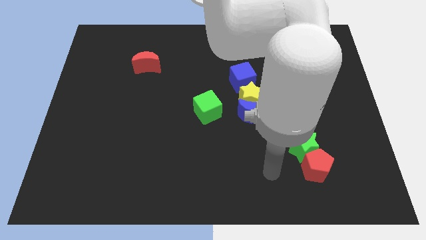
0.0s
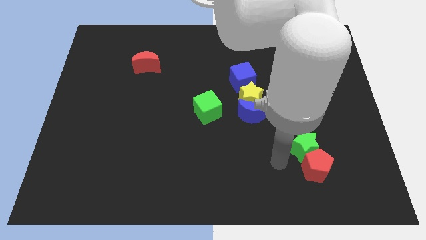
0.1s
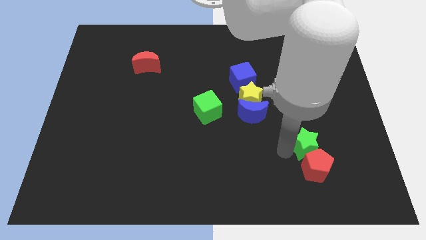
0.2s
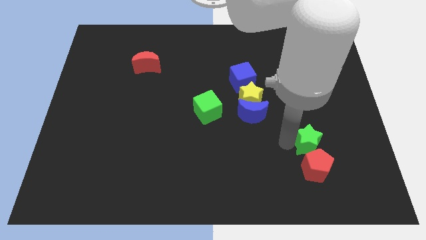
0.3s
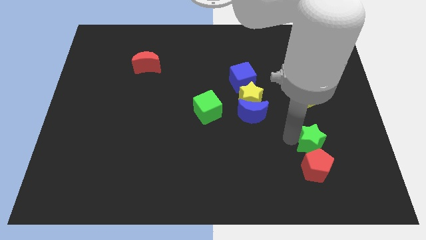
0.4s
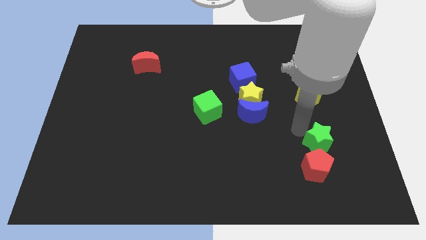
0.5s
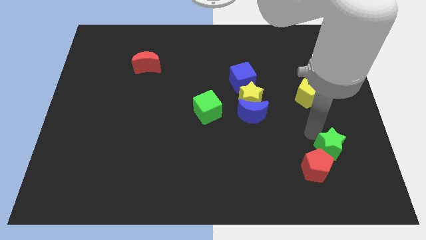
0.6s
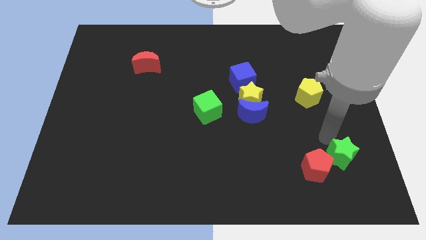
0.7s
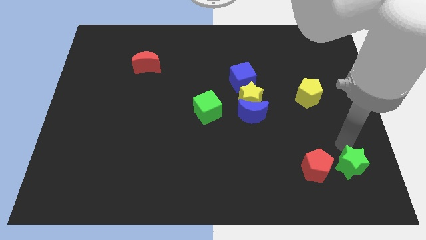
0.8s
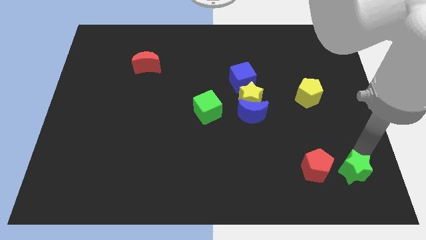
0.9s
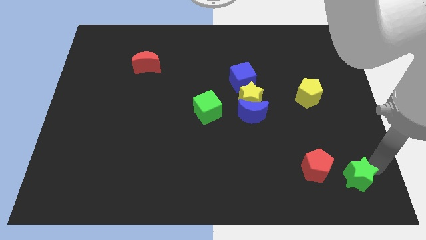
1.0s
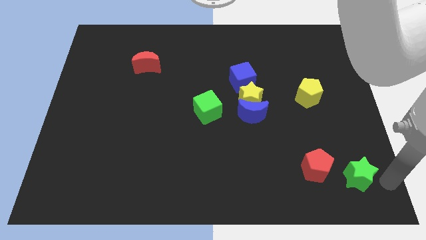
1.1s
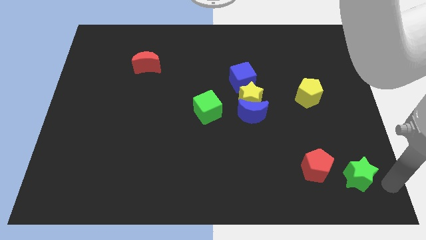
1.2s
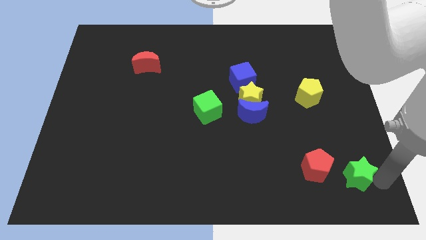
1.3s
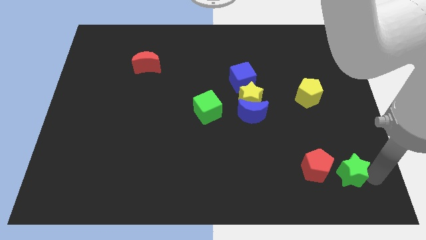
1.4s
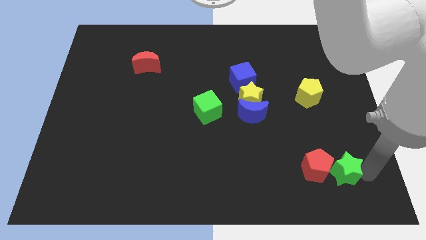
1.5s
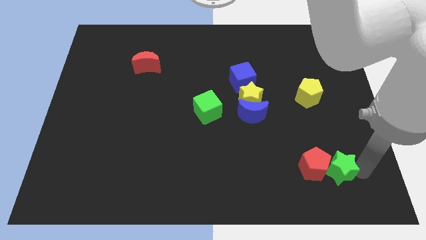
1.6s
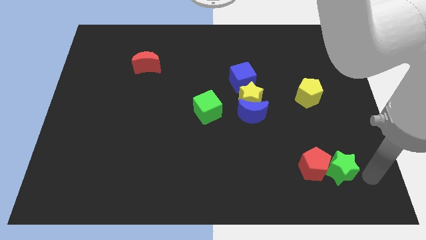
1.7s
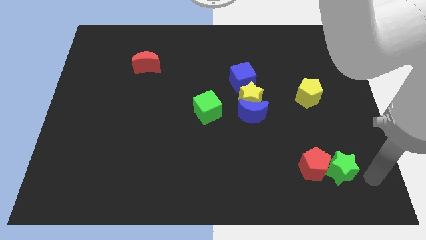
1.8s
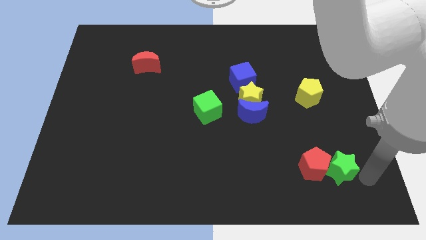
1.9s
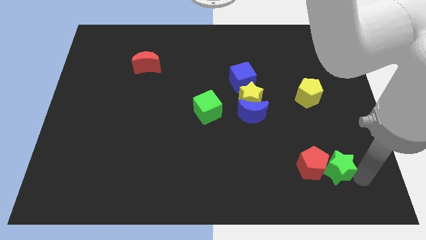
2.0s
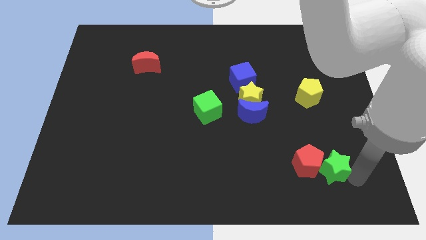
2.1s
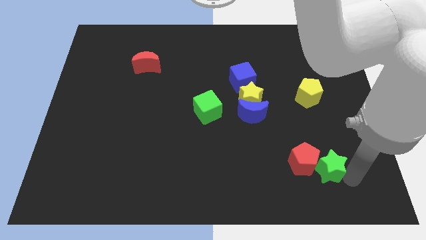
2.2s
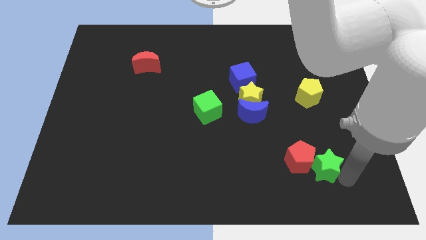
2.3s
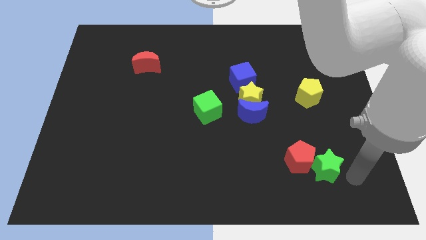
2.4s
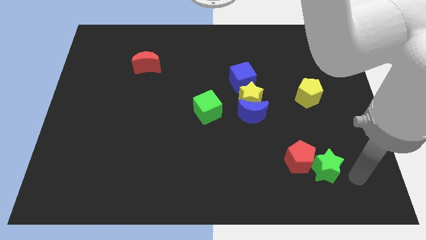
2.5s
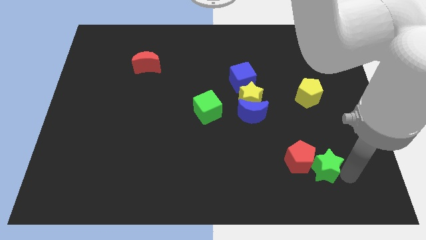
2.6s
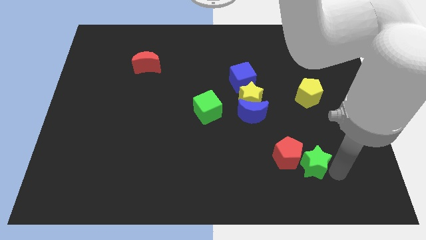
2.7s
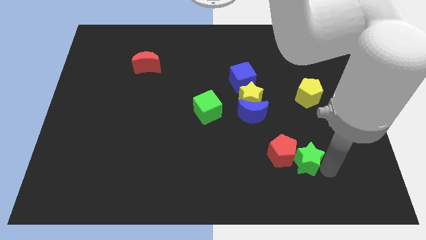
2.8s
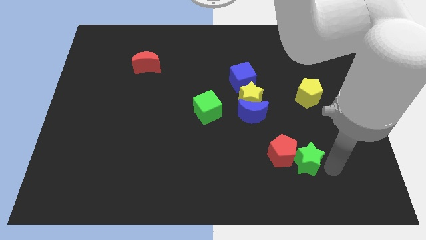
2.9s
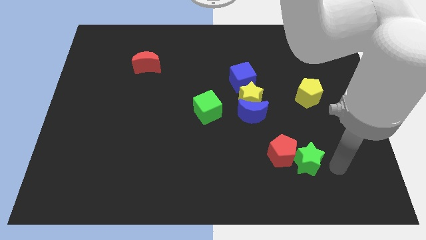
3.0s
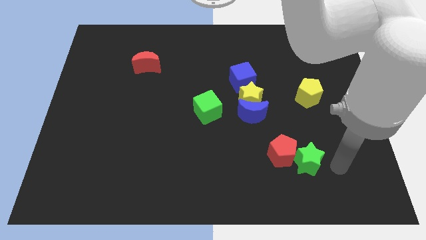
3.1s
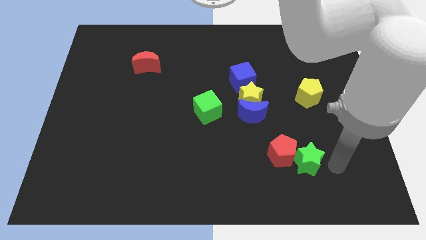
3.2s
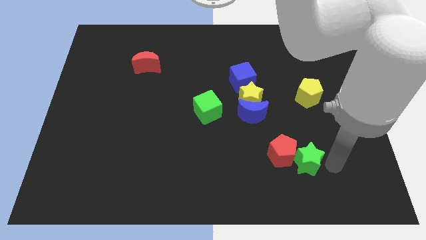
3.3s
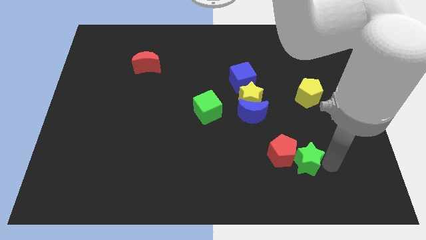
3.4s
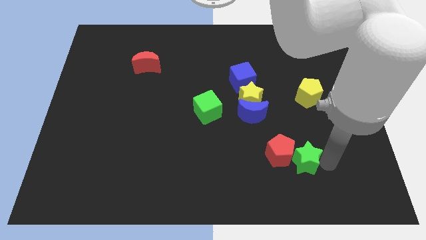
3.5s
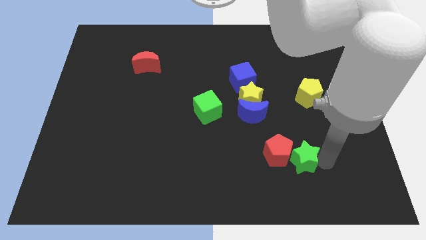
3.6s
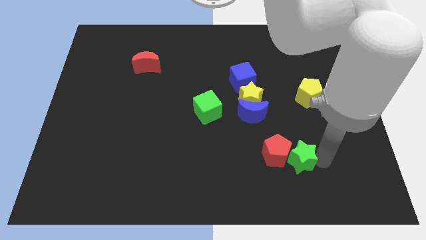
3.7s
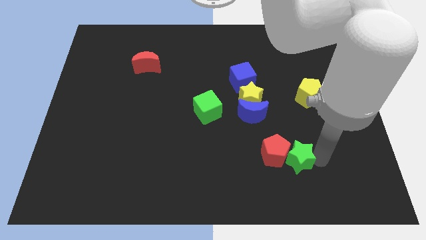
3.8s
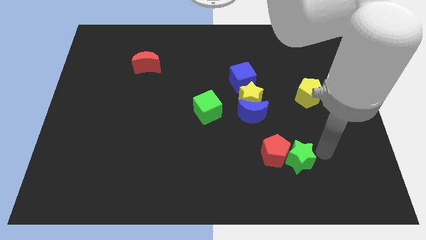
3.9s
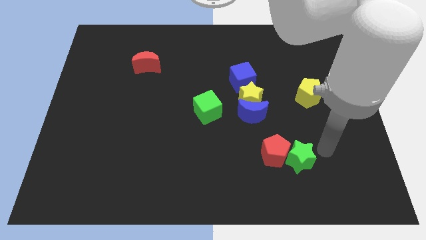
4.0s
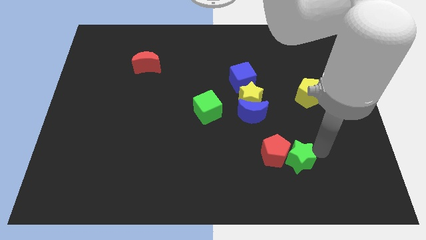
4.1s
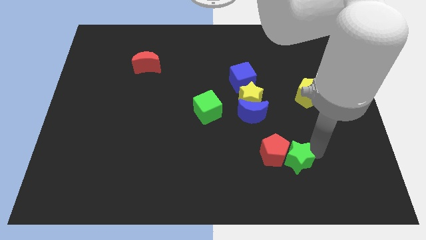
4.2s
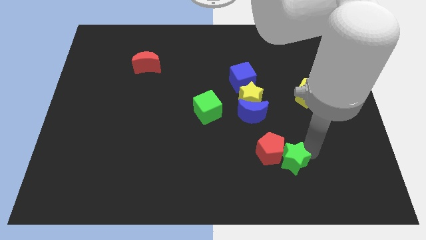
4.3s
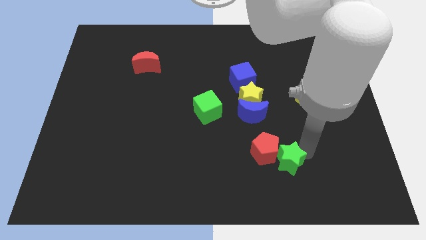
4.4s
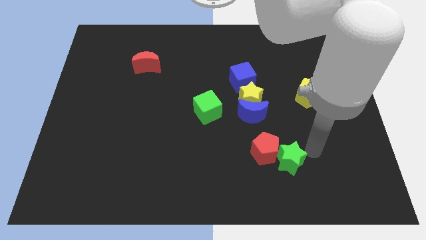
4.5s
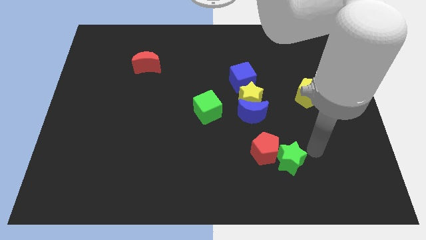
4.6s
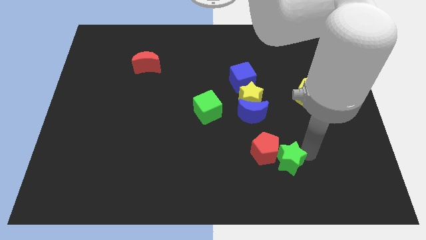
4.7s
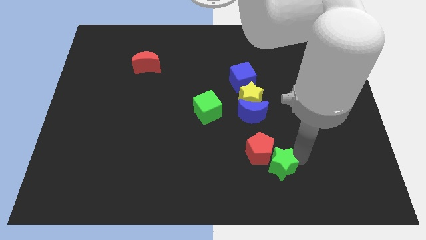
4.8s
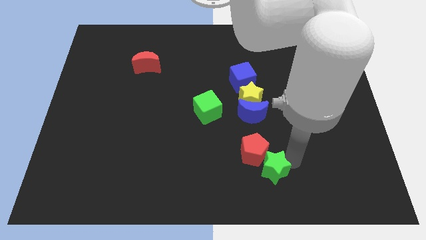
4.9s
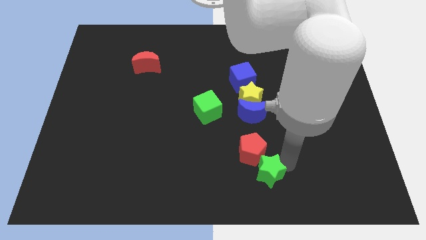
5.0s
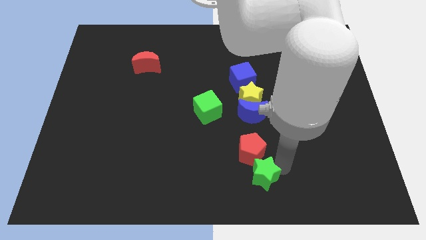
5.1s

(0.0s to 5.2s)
slide the green star to the bottom side

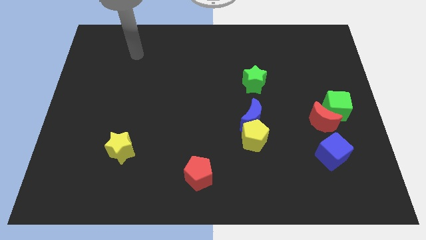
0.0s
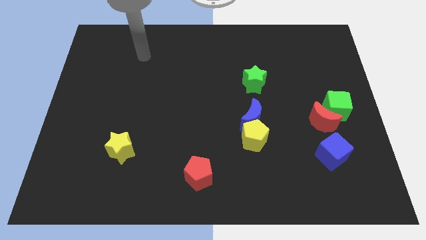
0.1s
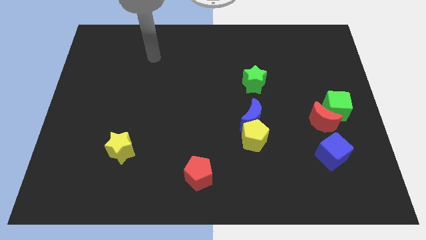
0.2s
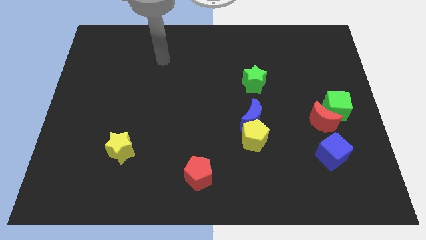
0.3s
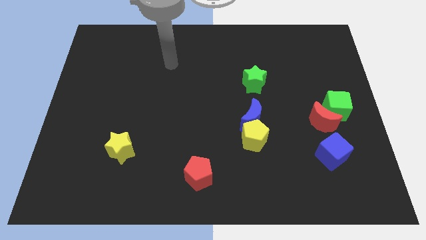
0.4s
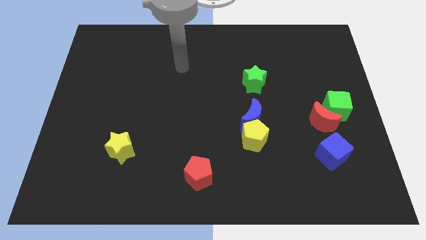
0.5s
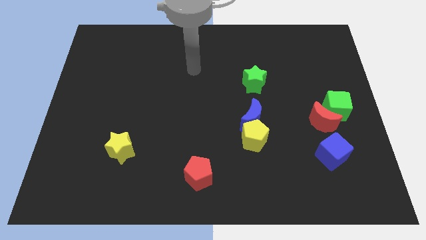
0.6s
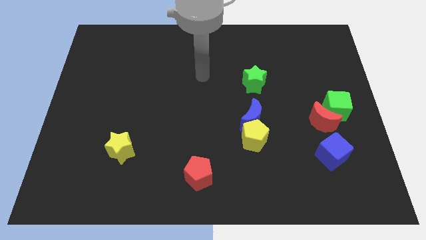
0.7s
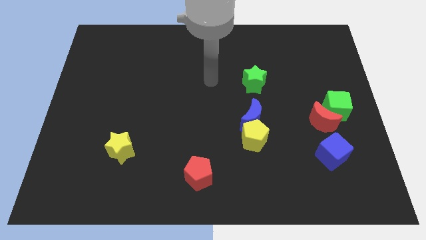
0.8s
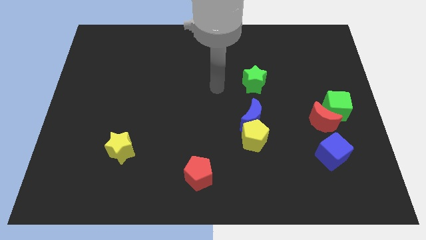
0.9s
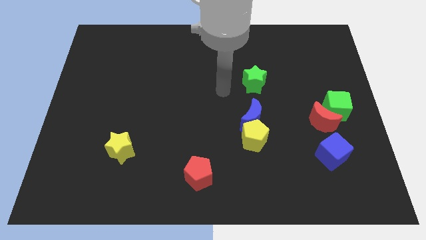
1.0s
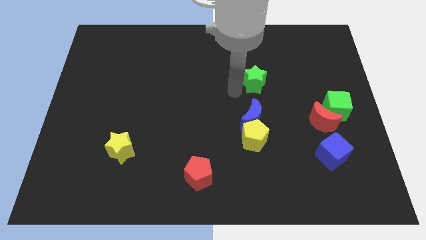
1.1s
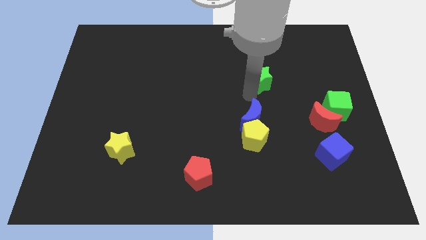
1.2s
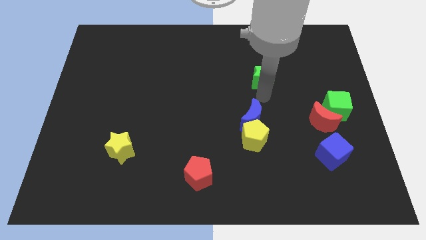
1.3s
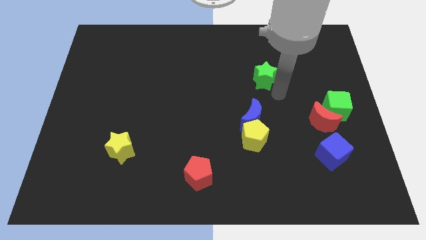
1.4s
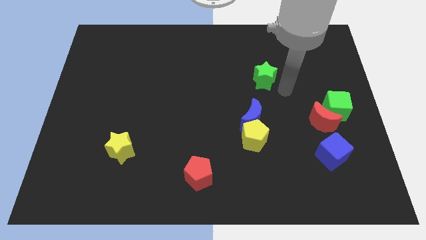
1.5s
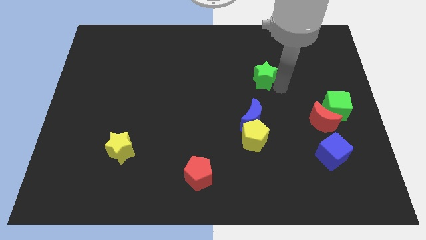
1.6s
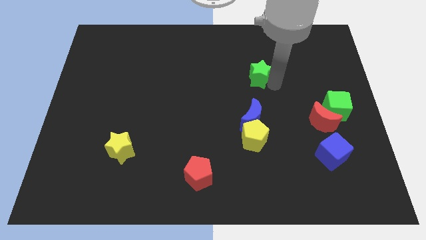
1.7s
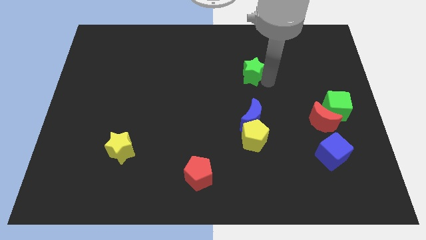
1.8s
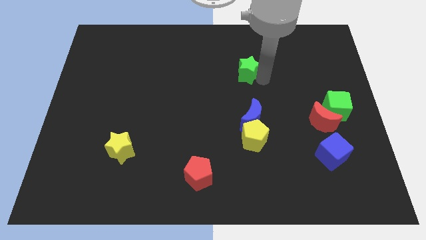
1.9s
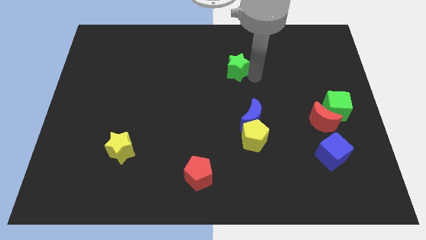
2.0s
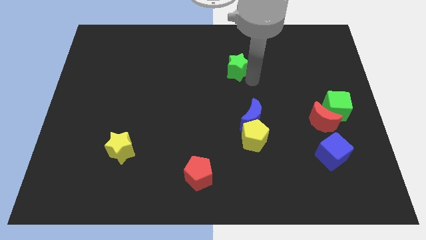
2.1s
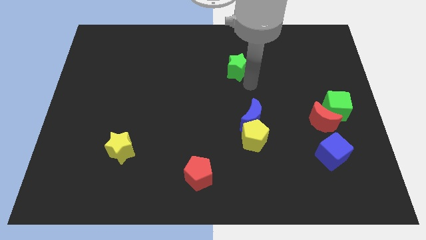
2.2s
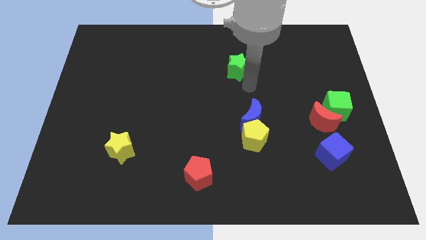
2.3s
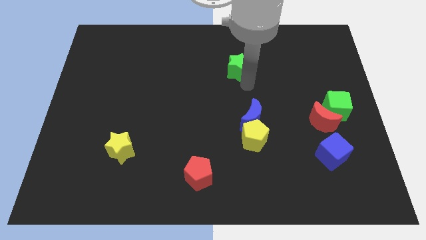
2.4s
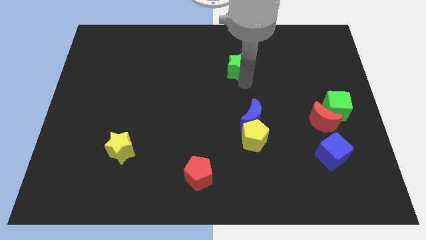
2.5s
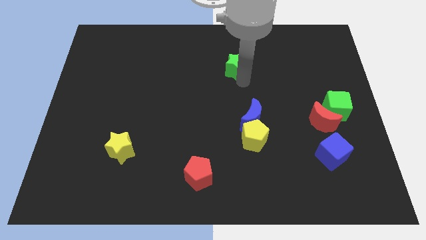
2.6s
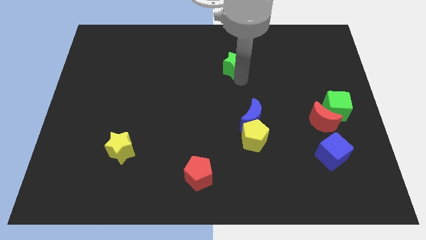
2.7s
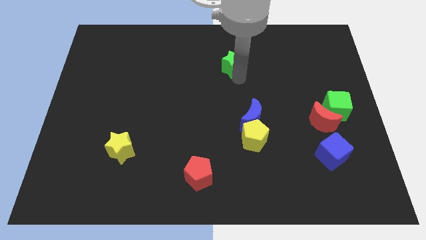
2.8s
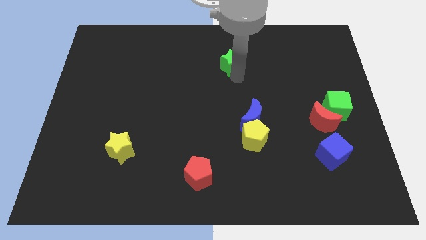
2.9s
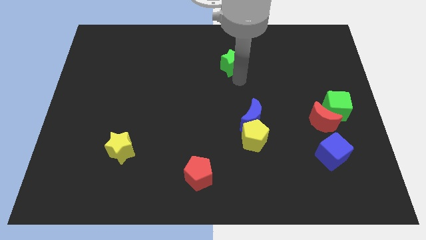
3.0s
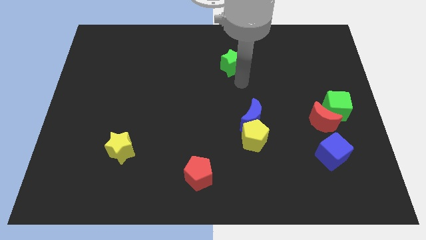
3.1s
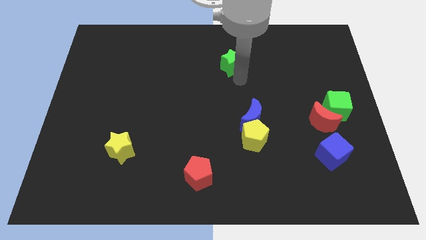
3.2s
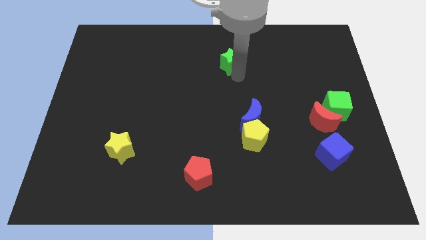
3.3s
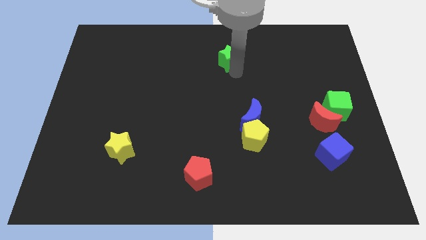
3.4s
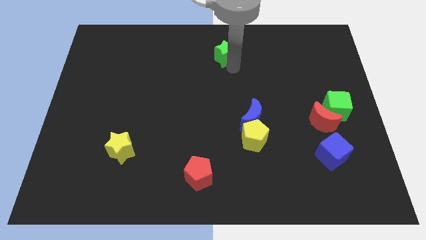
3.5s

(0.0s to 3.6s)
slide the green star to the top side
